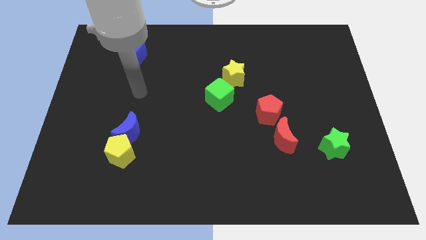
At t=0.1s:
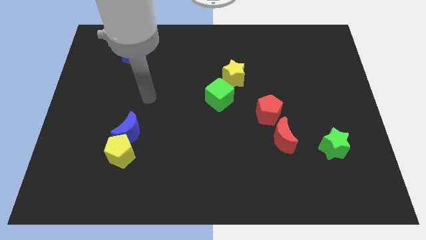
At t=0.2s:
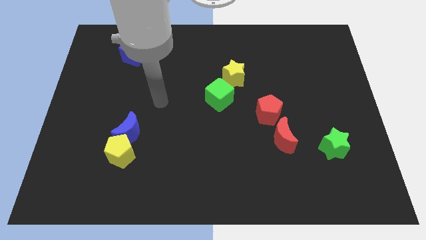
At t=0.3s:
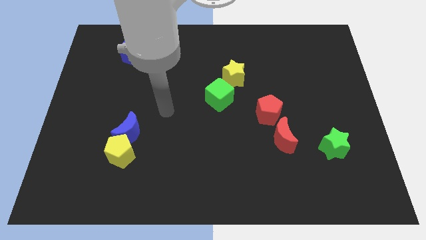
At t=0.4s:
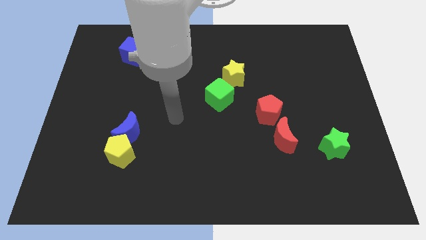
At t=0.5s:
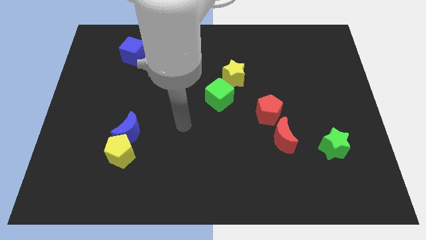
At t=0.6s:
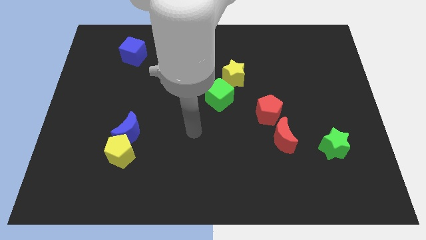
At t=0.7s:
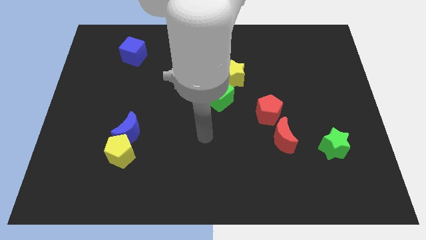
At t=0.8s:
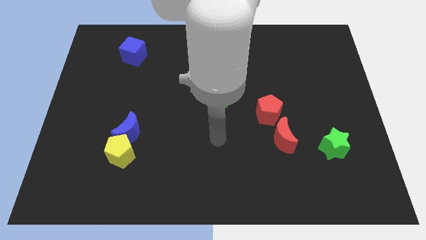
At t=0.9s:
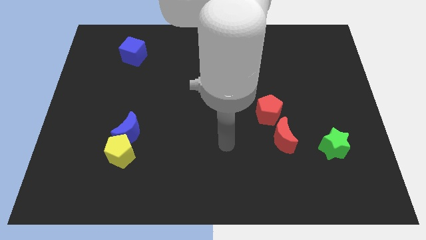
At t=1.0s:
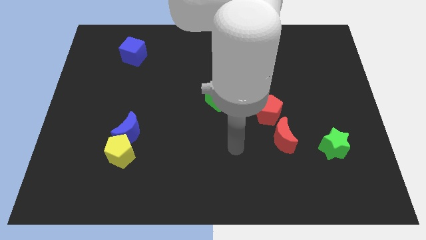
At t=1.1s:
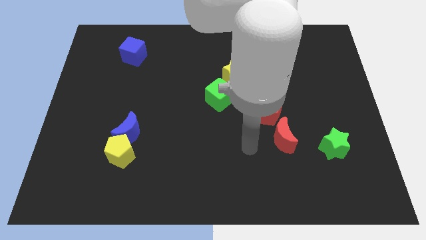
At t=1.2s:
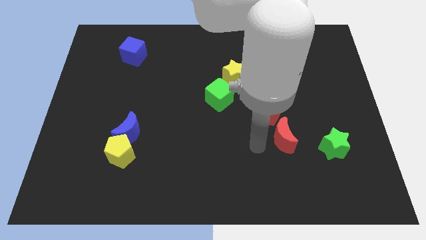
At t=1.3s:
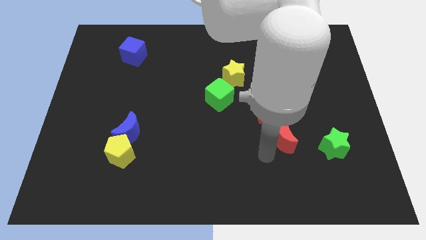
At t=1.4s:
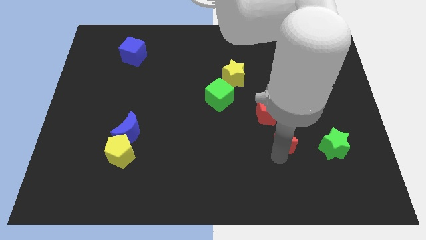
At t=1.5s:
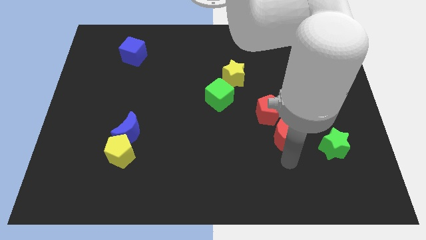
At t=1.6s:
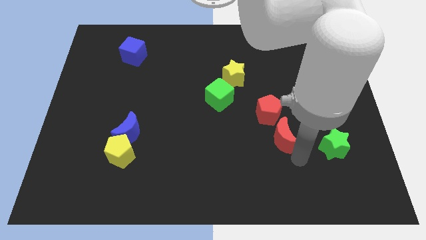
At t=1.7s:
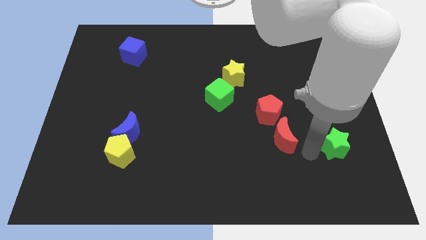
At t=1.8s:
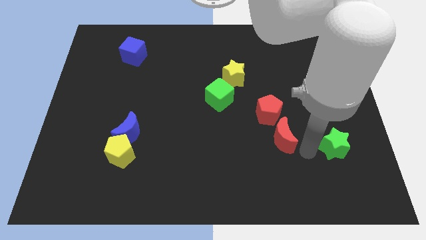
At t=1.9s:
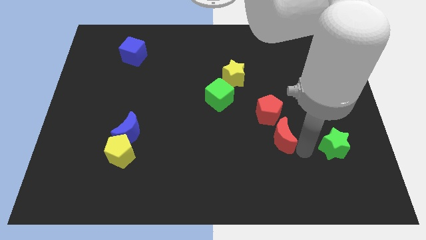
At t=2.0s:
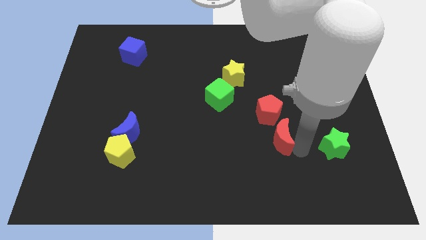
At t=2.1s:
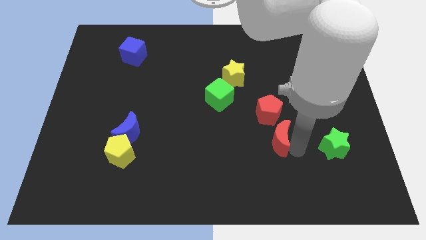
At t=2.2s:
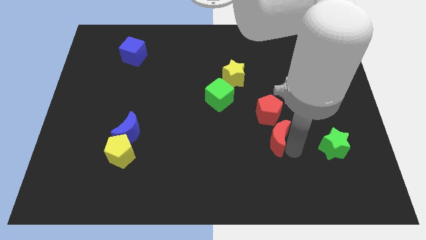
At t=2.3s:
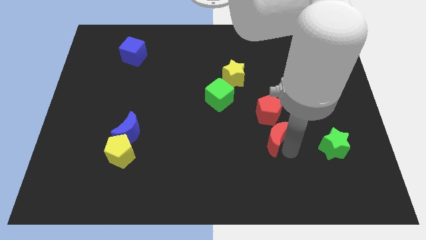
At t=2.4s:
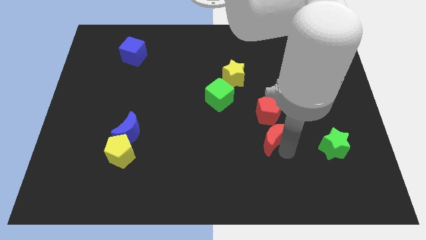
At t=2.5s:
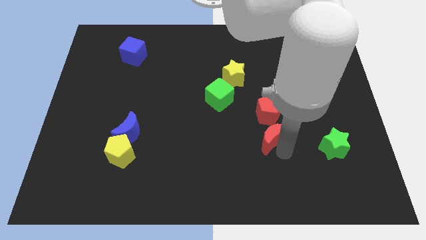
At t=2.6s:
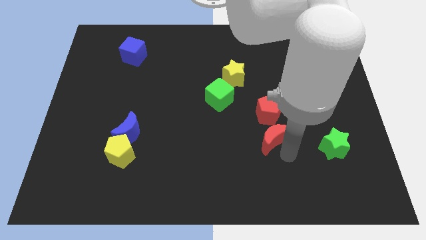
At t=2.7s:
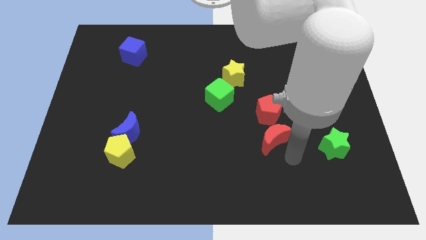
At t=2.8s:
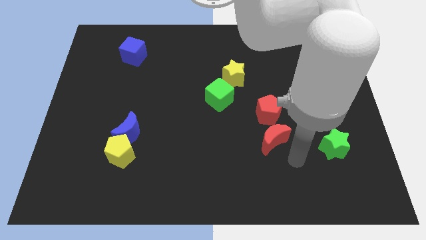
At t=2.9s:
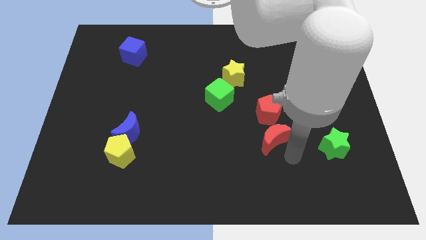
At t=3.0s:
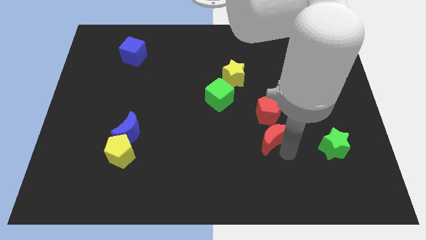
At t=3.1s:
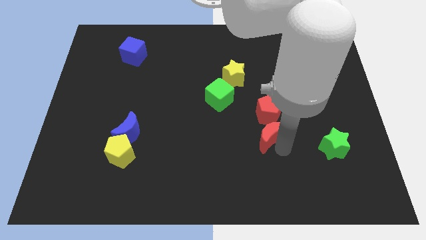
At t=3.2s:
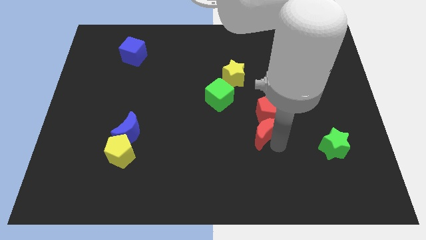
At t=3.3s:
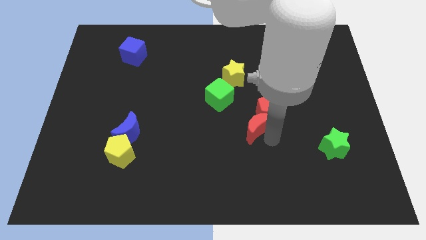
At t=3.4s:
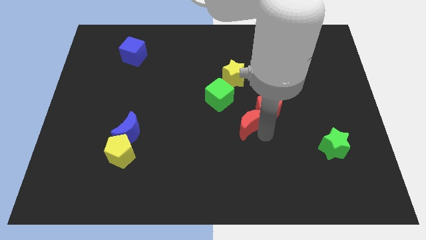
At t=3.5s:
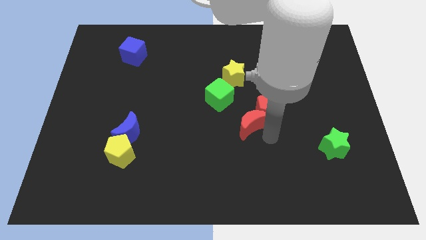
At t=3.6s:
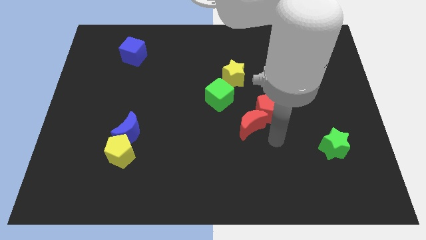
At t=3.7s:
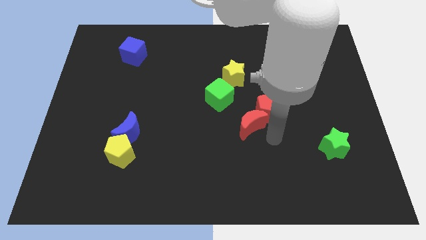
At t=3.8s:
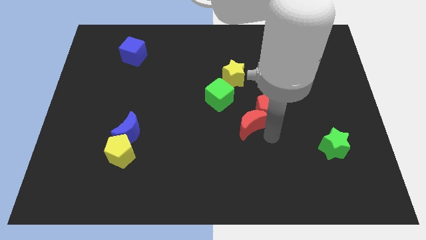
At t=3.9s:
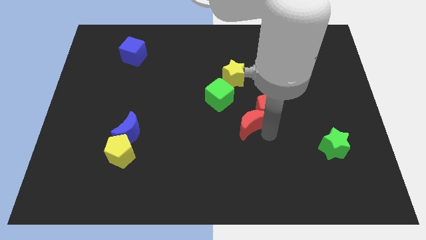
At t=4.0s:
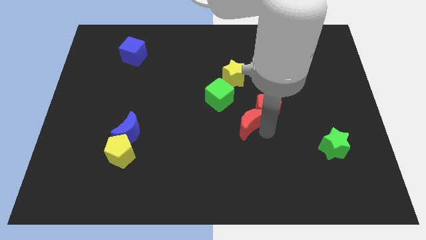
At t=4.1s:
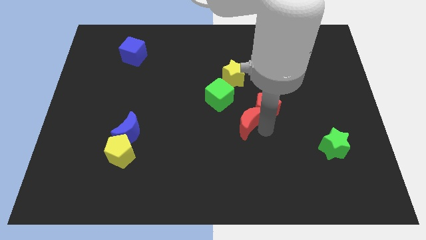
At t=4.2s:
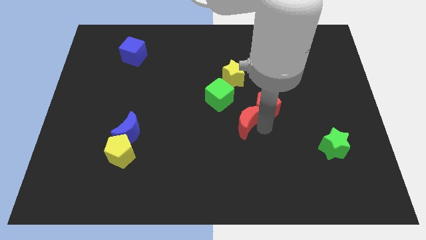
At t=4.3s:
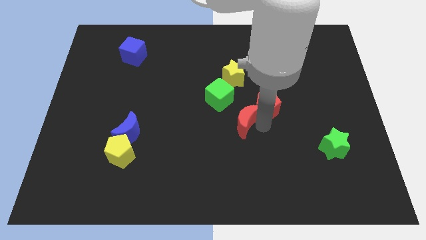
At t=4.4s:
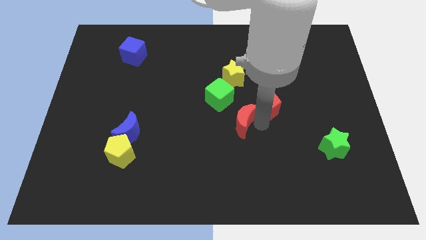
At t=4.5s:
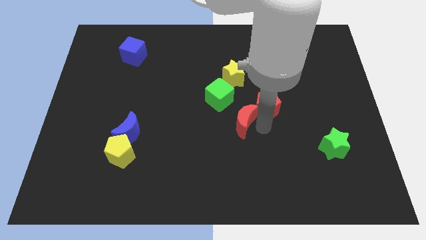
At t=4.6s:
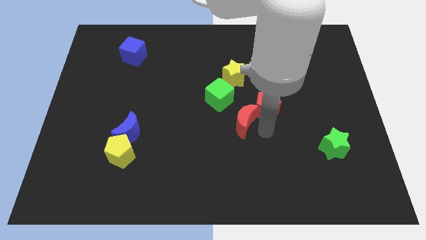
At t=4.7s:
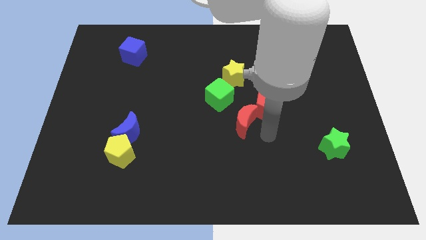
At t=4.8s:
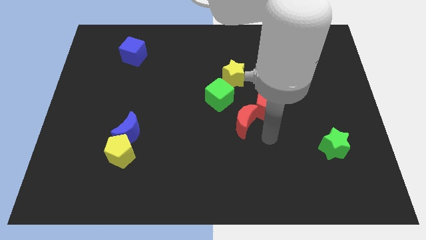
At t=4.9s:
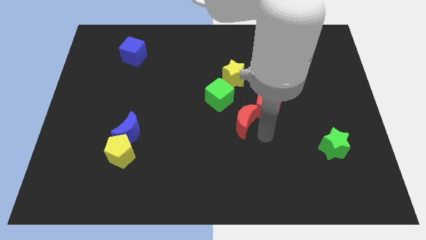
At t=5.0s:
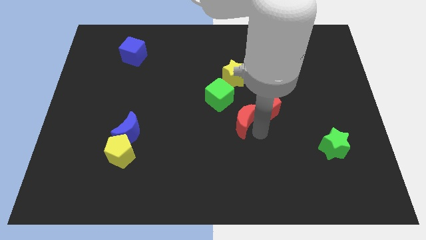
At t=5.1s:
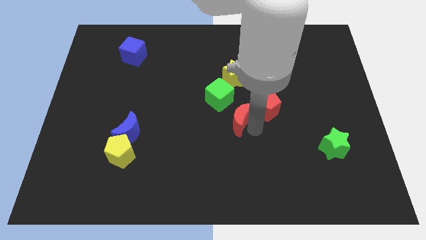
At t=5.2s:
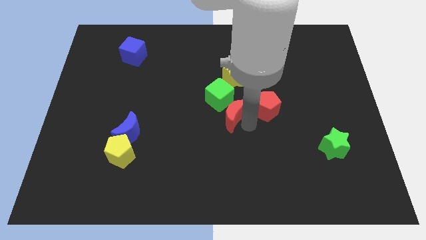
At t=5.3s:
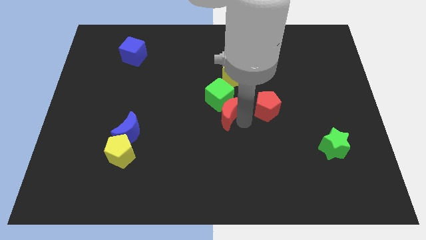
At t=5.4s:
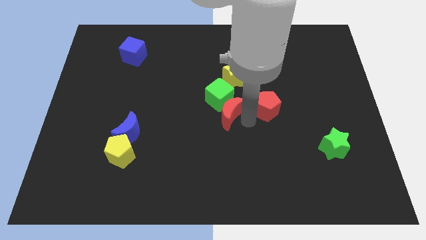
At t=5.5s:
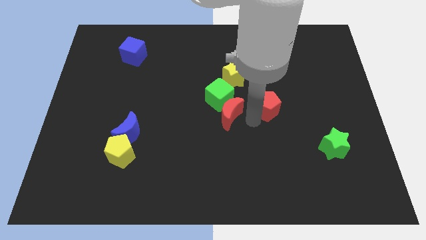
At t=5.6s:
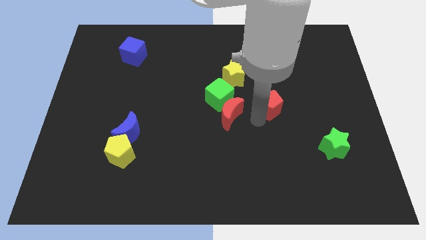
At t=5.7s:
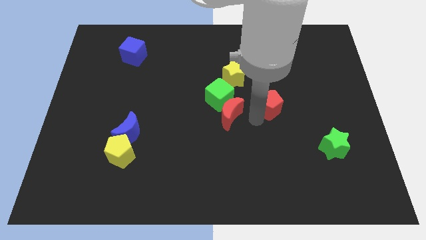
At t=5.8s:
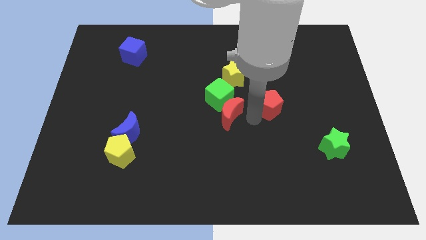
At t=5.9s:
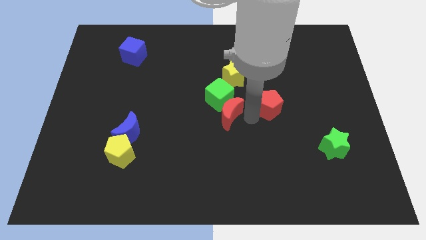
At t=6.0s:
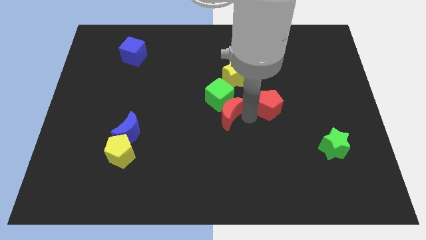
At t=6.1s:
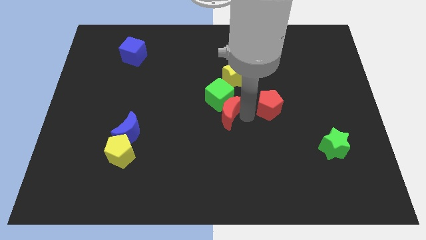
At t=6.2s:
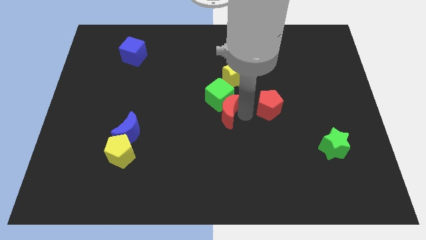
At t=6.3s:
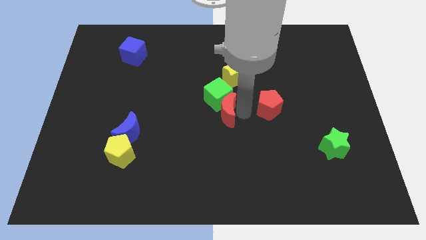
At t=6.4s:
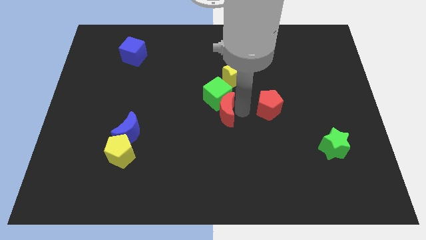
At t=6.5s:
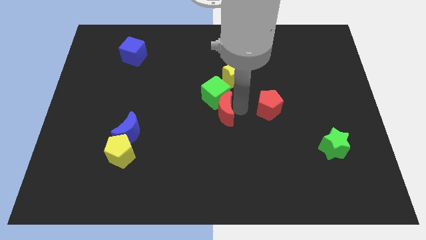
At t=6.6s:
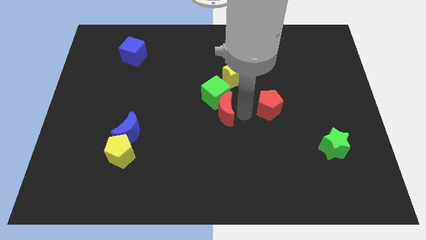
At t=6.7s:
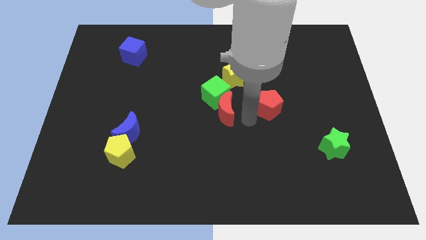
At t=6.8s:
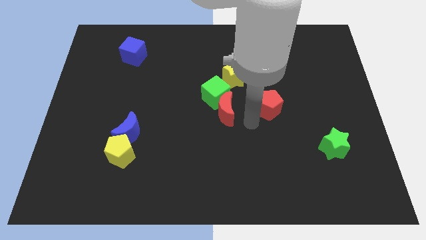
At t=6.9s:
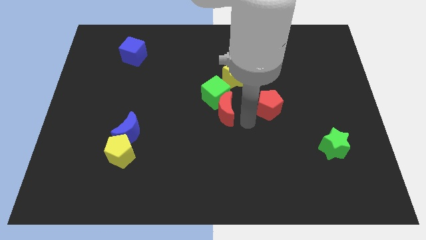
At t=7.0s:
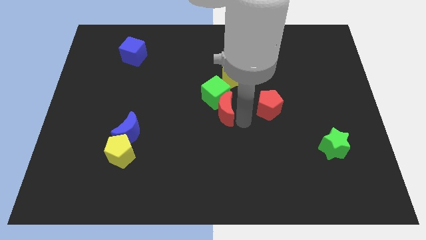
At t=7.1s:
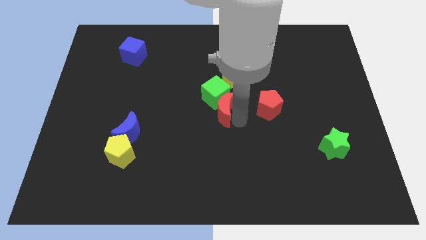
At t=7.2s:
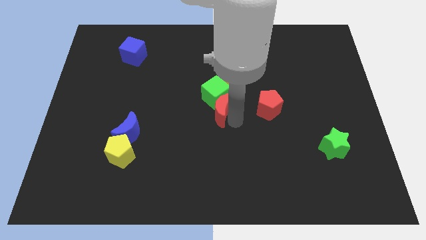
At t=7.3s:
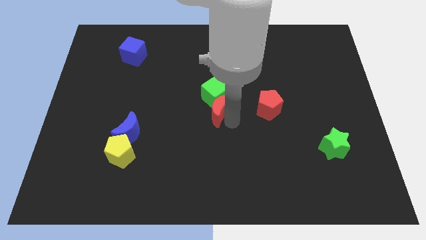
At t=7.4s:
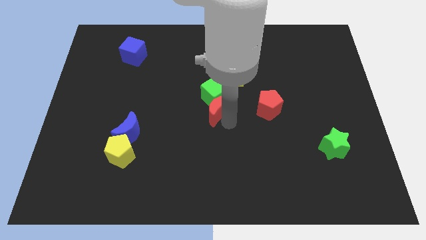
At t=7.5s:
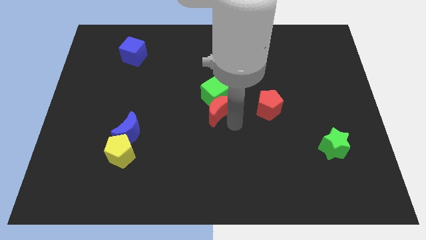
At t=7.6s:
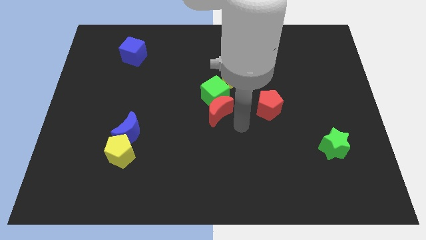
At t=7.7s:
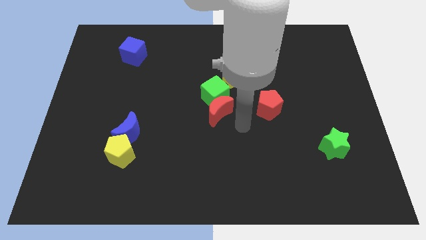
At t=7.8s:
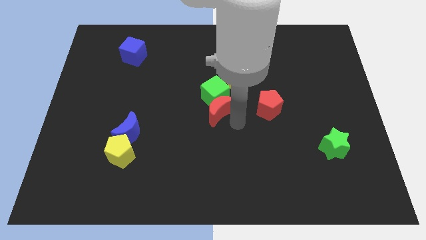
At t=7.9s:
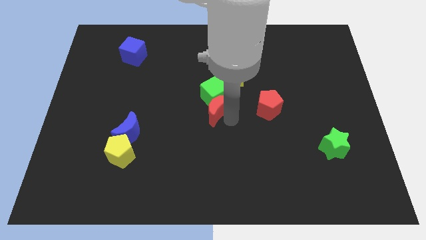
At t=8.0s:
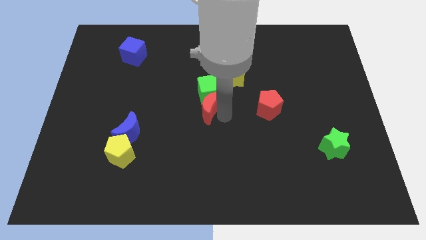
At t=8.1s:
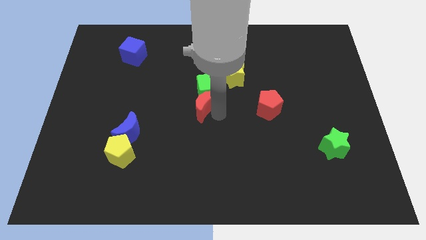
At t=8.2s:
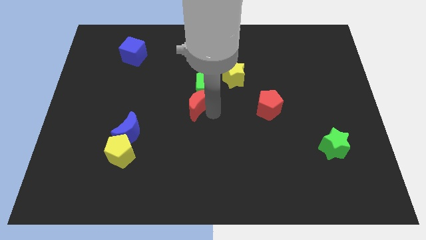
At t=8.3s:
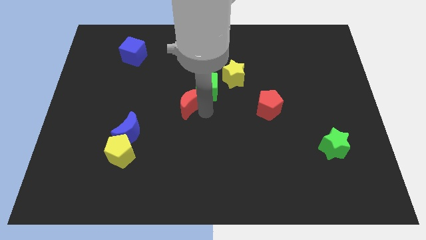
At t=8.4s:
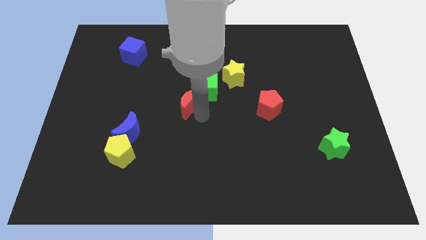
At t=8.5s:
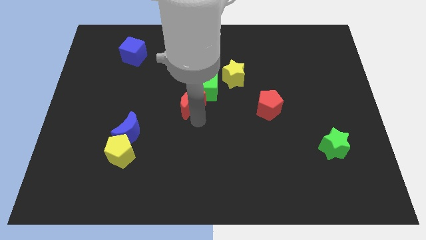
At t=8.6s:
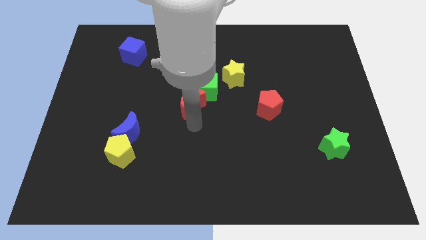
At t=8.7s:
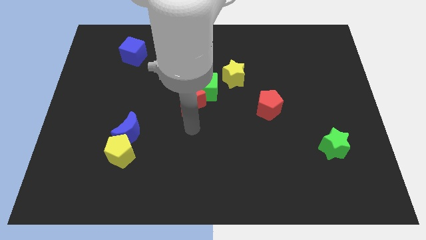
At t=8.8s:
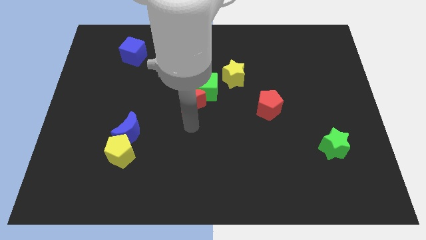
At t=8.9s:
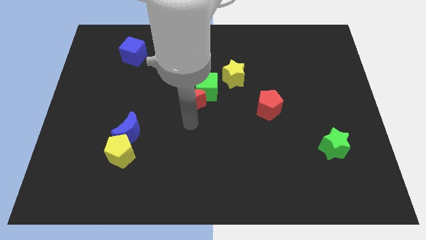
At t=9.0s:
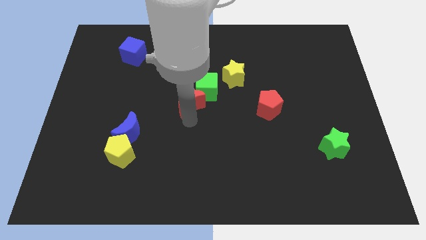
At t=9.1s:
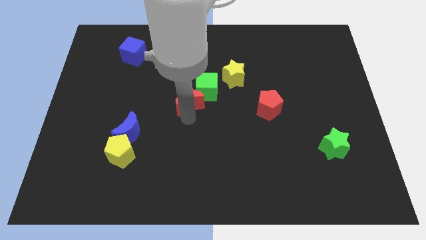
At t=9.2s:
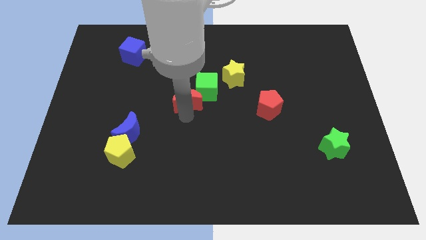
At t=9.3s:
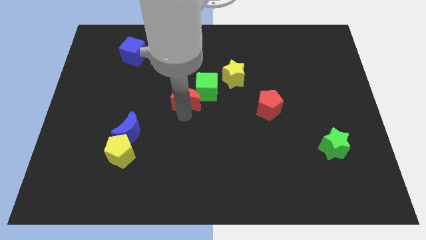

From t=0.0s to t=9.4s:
push the red moon up and then to the left
